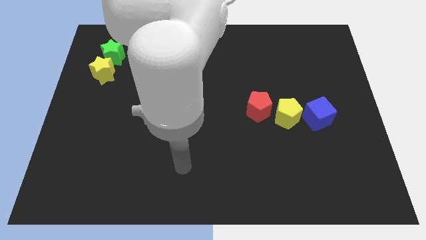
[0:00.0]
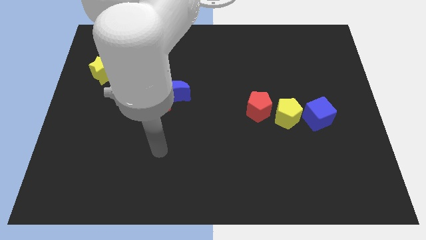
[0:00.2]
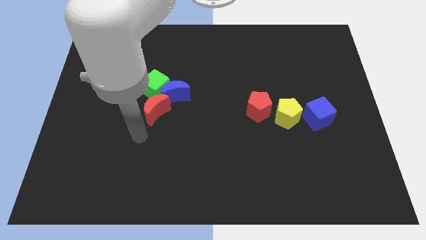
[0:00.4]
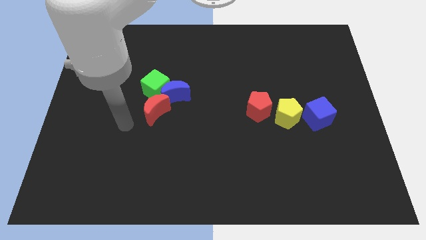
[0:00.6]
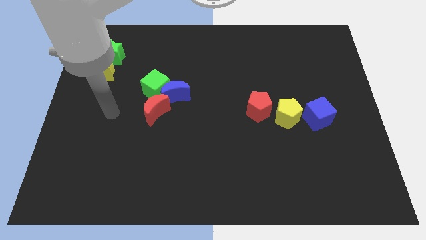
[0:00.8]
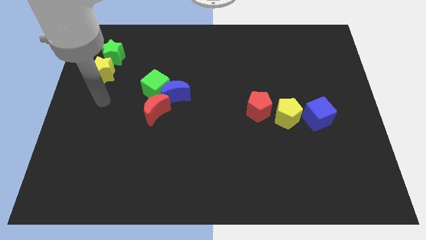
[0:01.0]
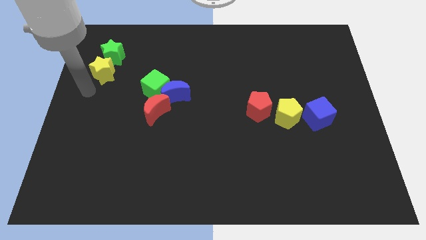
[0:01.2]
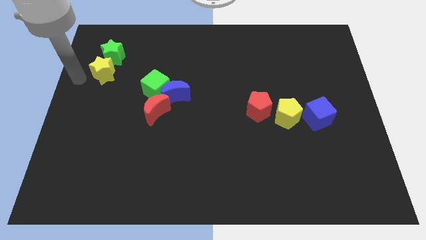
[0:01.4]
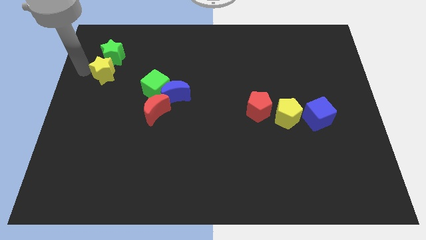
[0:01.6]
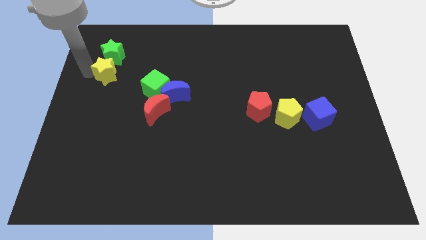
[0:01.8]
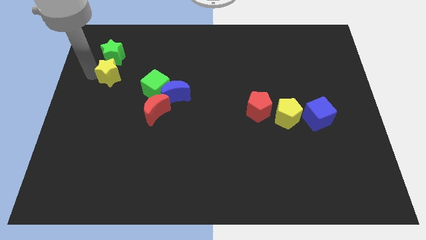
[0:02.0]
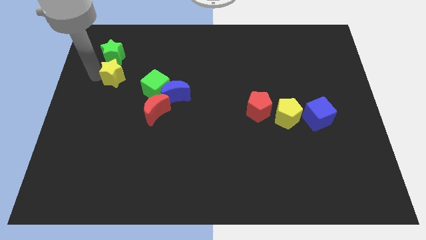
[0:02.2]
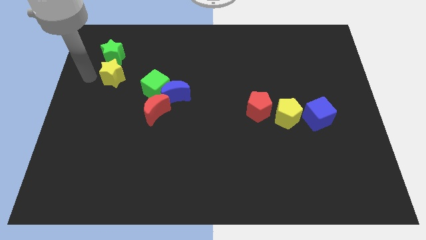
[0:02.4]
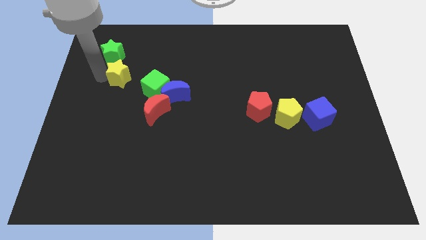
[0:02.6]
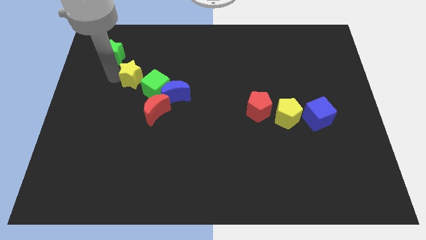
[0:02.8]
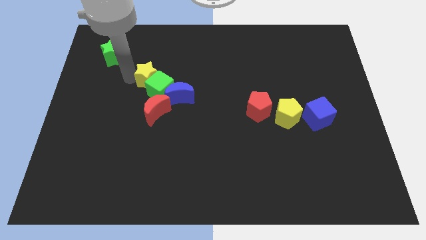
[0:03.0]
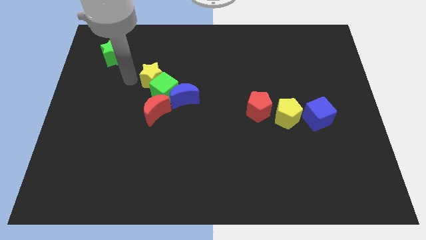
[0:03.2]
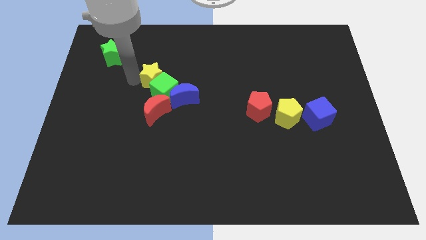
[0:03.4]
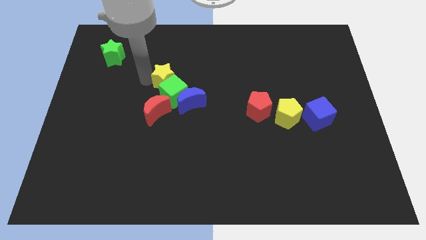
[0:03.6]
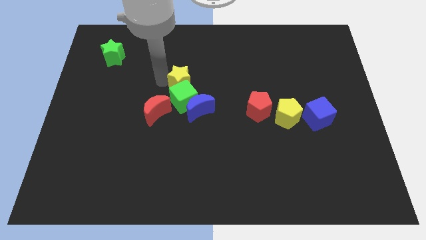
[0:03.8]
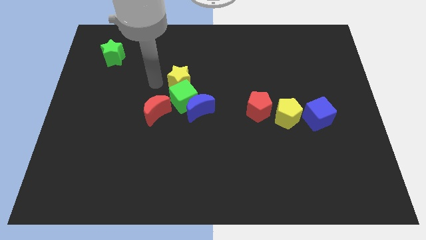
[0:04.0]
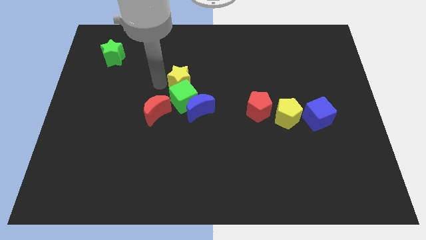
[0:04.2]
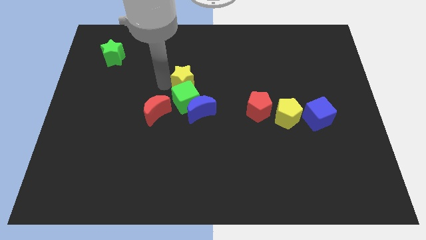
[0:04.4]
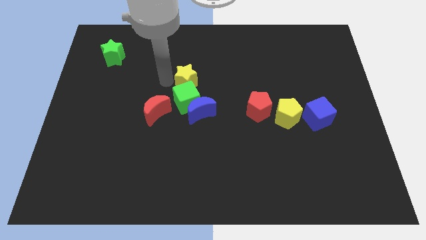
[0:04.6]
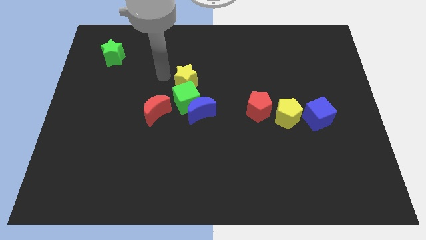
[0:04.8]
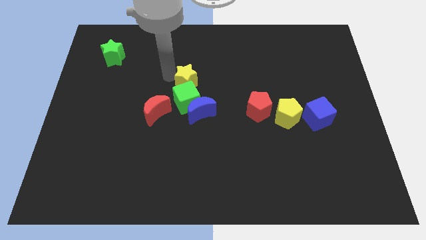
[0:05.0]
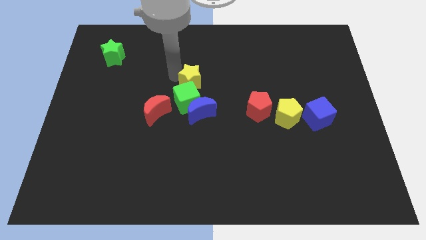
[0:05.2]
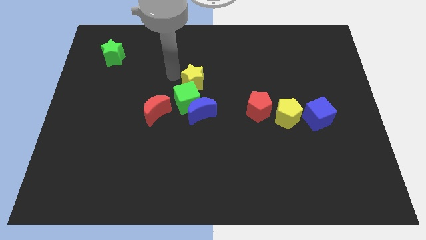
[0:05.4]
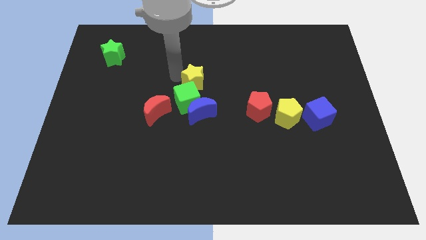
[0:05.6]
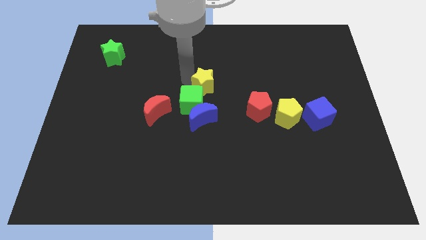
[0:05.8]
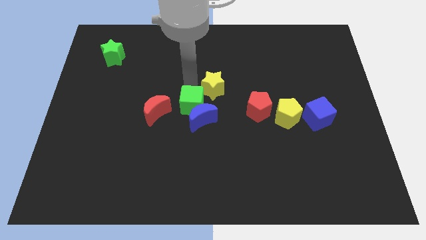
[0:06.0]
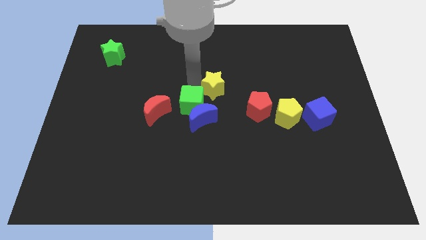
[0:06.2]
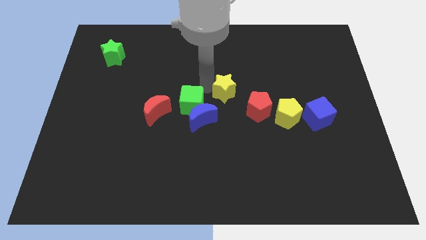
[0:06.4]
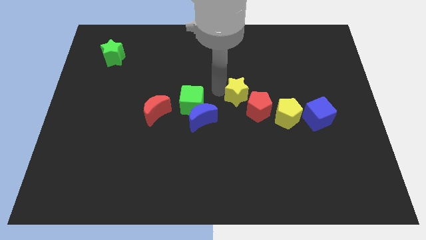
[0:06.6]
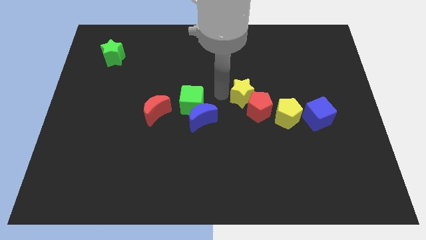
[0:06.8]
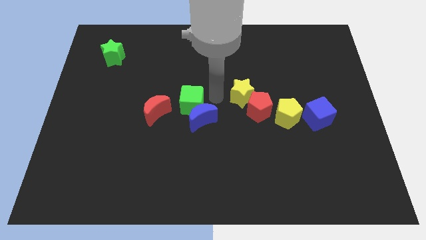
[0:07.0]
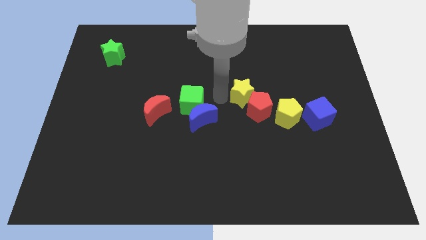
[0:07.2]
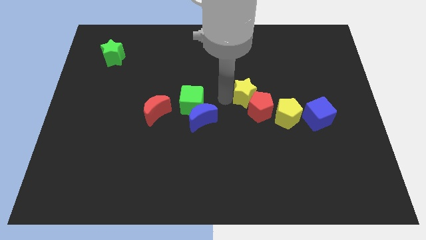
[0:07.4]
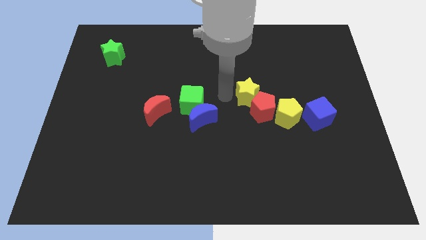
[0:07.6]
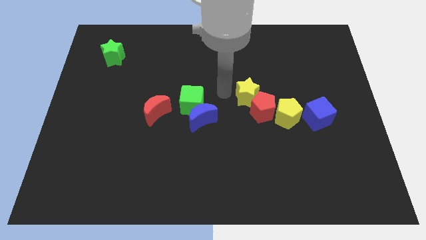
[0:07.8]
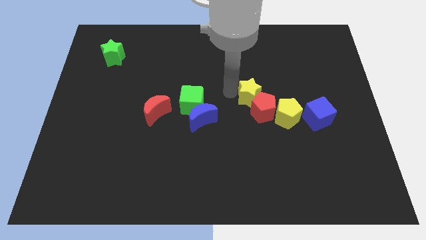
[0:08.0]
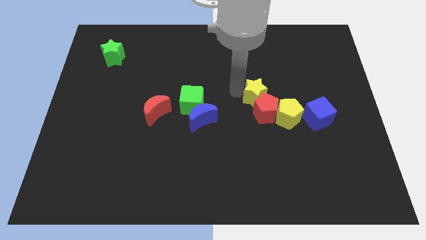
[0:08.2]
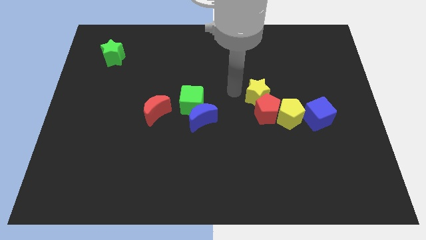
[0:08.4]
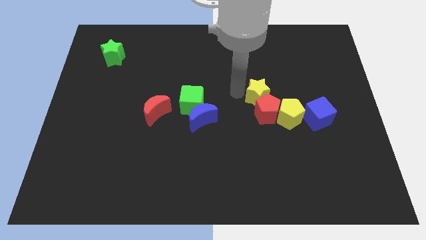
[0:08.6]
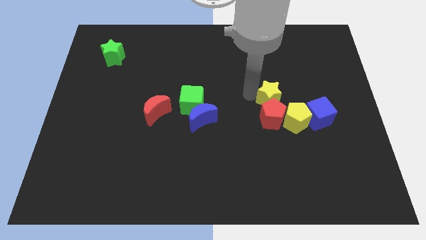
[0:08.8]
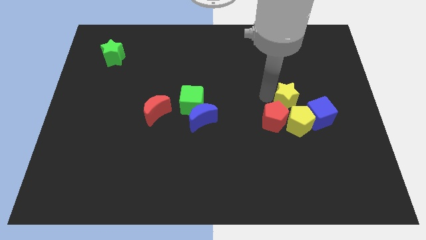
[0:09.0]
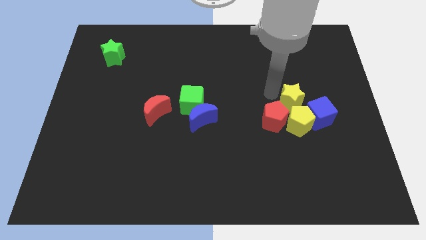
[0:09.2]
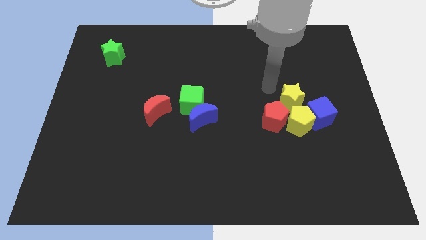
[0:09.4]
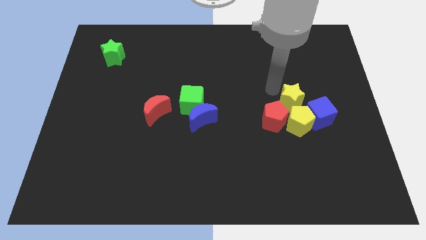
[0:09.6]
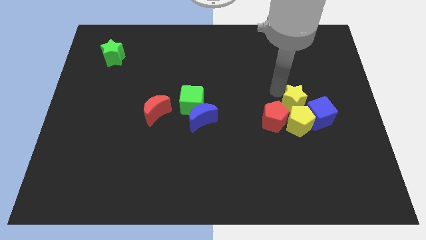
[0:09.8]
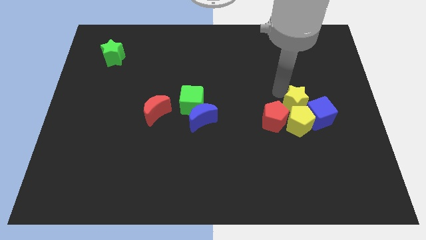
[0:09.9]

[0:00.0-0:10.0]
put the yellow star to the blue cube

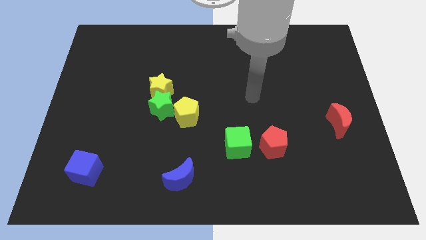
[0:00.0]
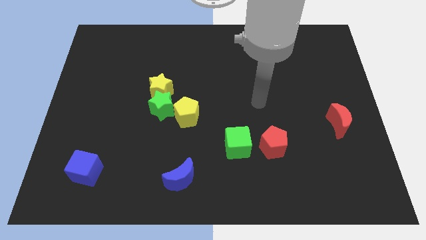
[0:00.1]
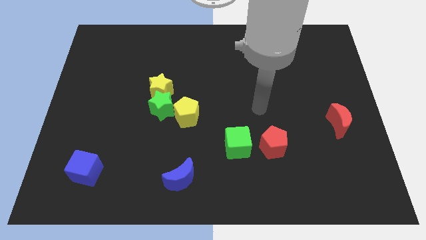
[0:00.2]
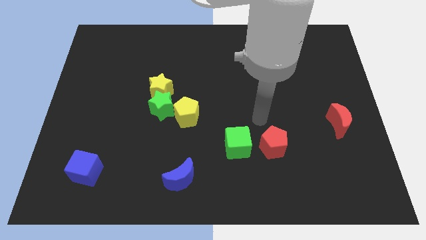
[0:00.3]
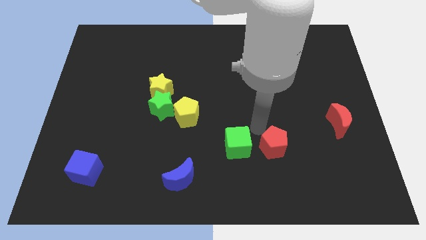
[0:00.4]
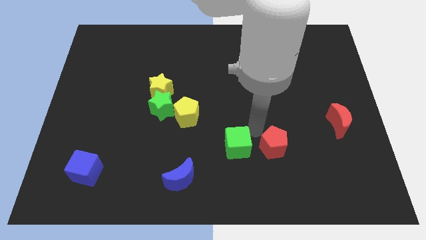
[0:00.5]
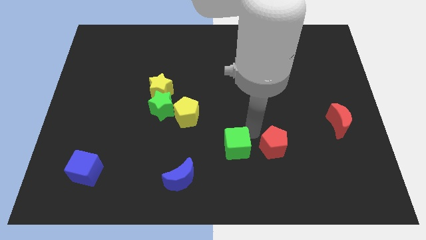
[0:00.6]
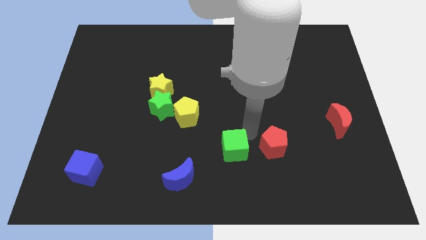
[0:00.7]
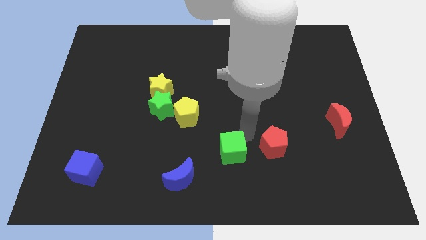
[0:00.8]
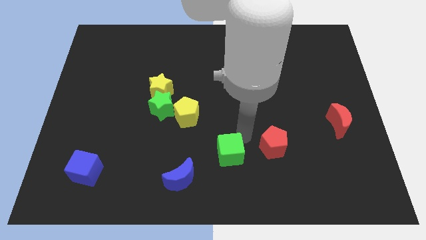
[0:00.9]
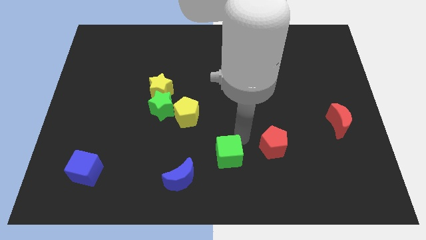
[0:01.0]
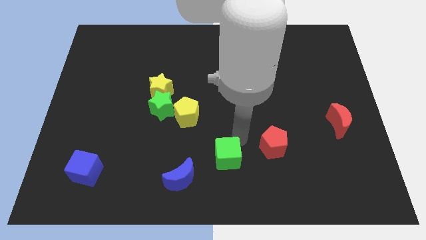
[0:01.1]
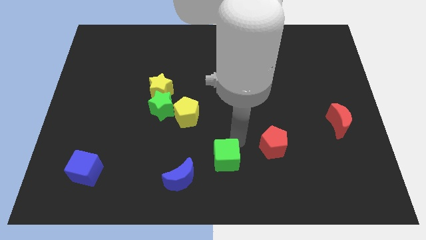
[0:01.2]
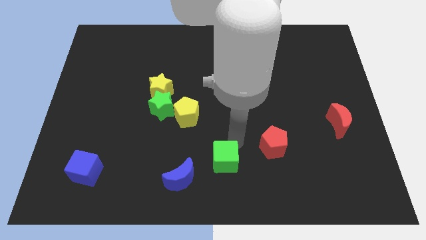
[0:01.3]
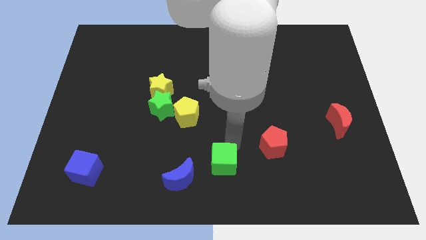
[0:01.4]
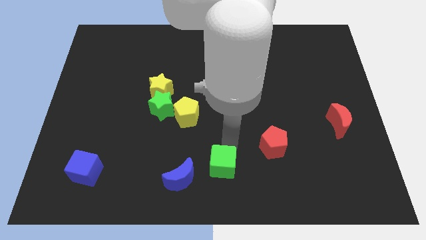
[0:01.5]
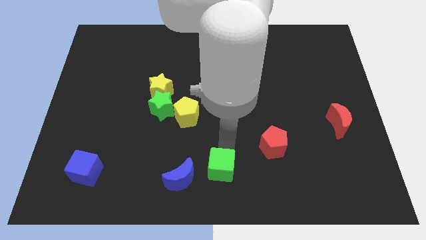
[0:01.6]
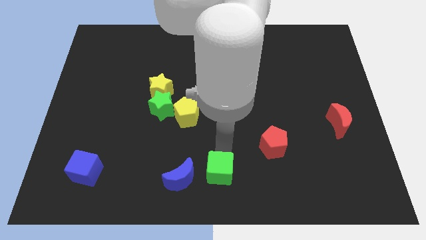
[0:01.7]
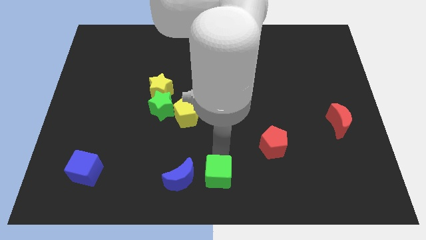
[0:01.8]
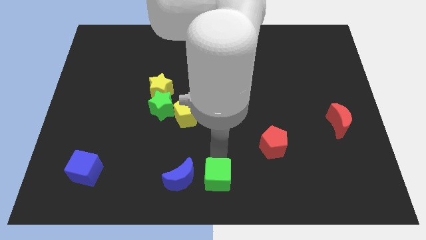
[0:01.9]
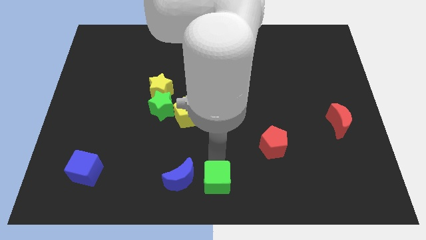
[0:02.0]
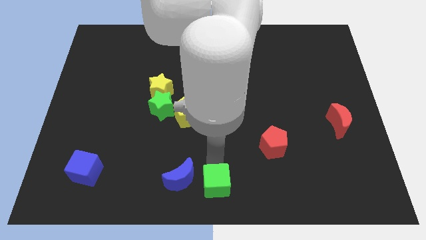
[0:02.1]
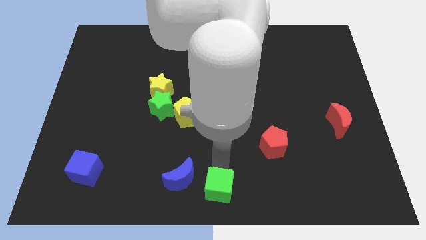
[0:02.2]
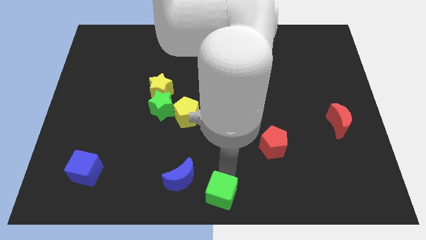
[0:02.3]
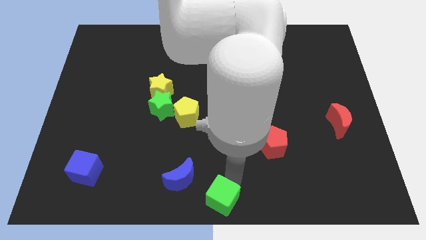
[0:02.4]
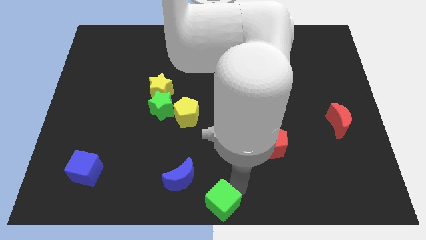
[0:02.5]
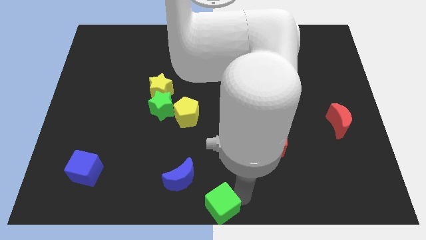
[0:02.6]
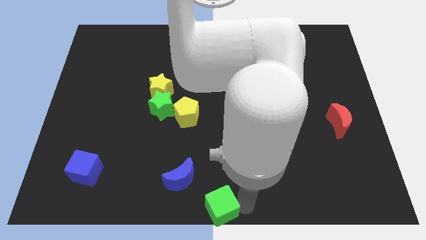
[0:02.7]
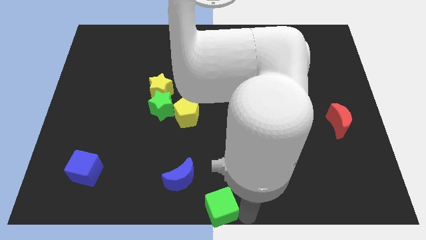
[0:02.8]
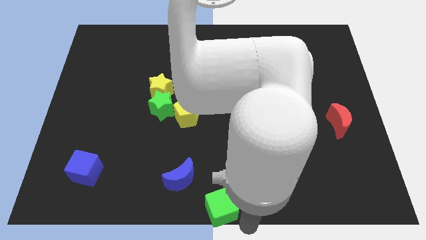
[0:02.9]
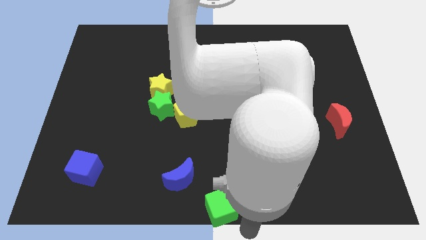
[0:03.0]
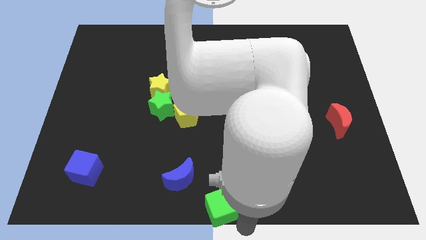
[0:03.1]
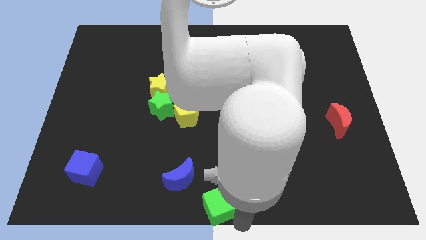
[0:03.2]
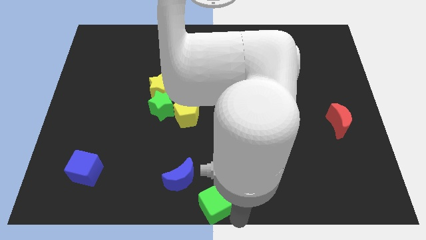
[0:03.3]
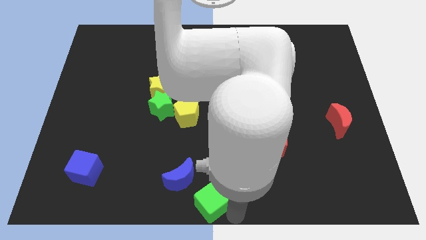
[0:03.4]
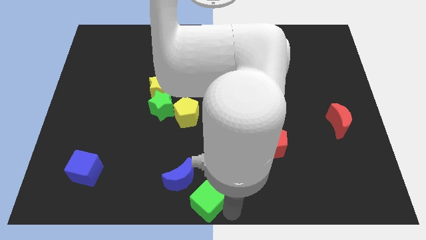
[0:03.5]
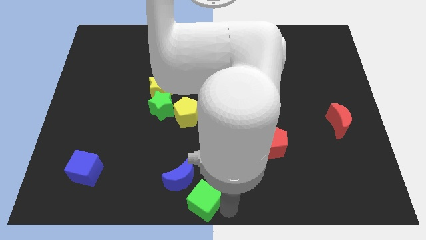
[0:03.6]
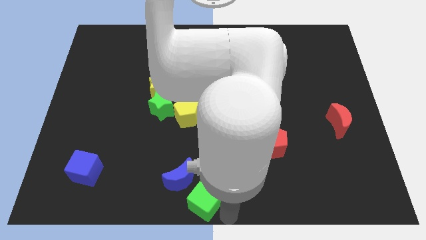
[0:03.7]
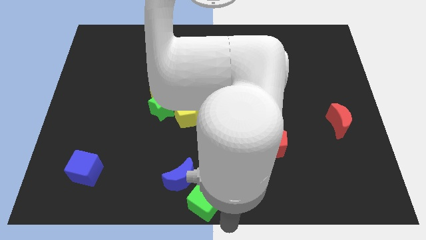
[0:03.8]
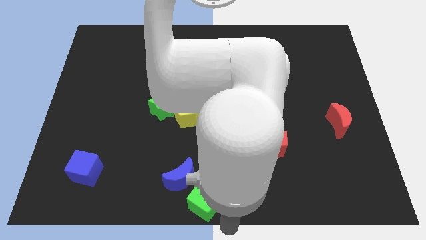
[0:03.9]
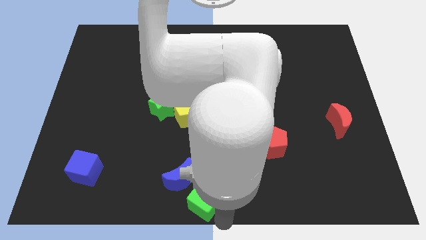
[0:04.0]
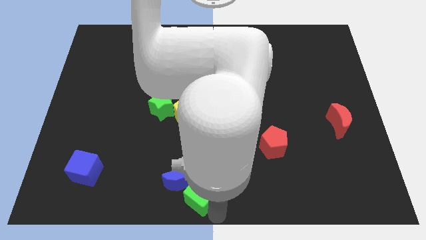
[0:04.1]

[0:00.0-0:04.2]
push the green cube close to the blue moon
